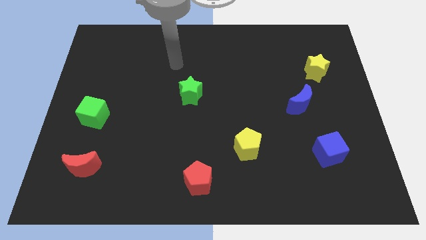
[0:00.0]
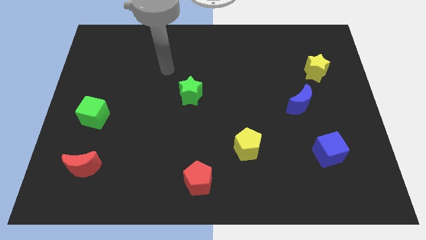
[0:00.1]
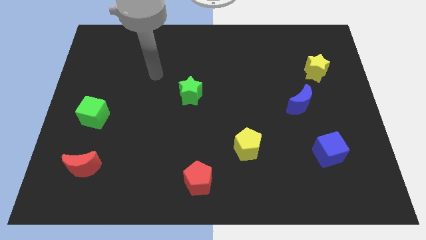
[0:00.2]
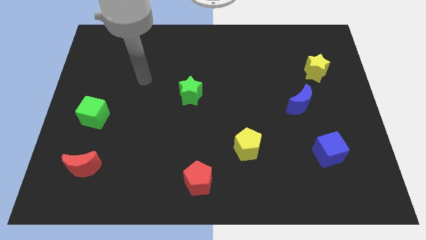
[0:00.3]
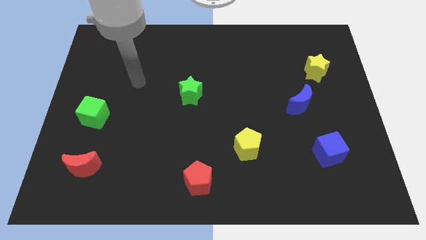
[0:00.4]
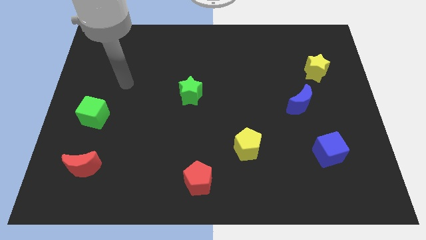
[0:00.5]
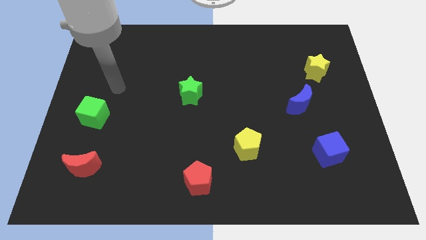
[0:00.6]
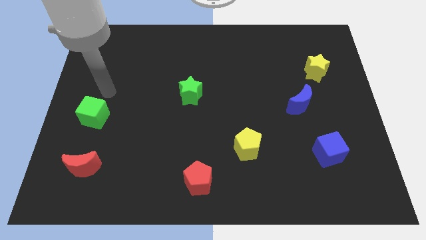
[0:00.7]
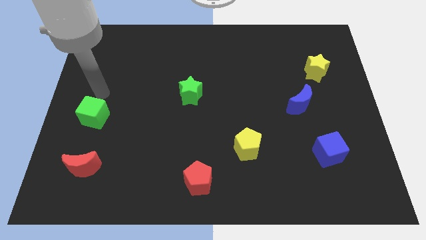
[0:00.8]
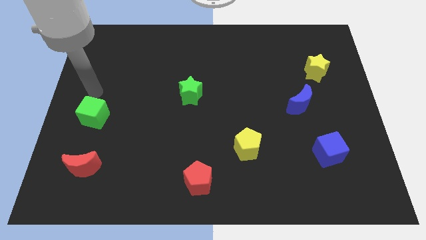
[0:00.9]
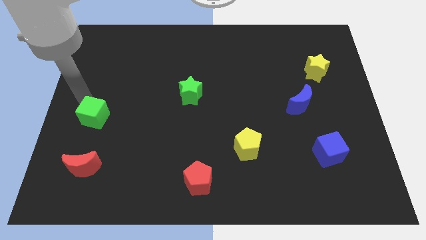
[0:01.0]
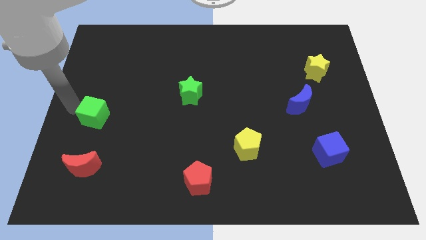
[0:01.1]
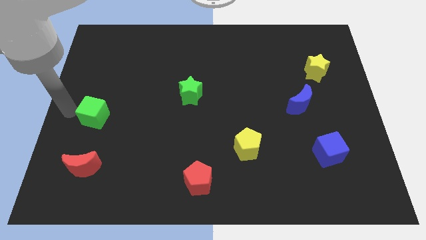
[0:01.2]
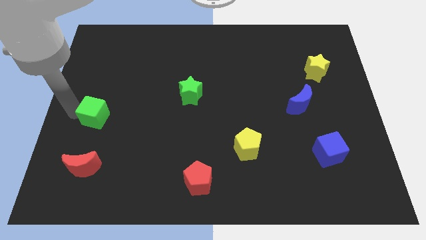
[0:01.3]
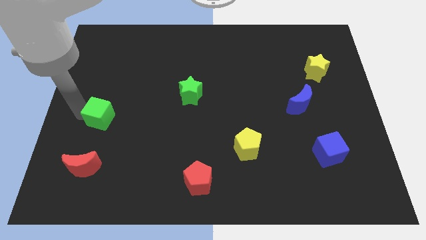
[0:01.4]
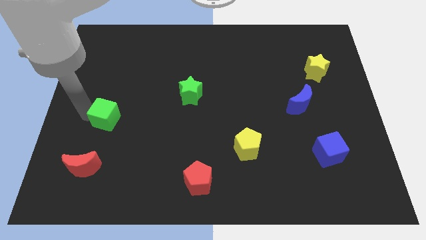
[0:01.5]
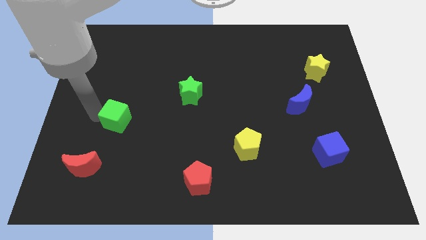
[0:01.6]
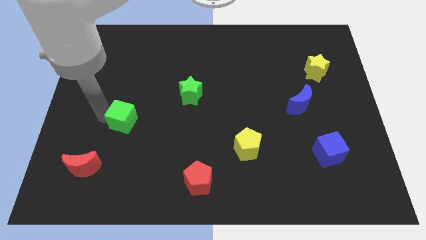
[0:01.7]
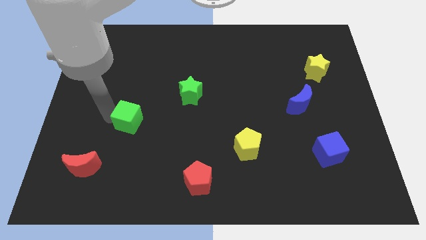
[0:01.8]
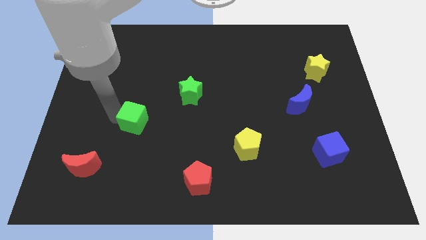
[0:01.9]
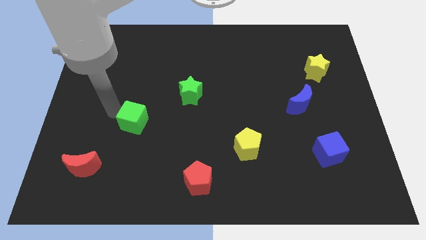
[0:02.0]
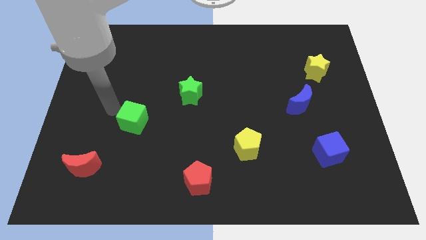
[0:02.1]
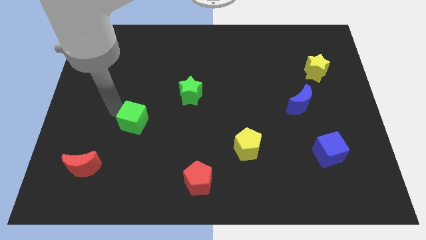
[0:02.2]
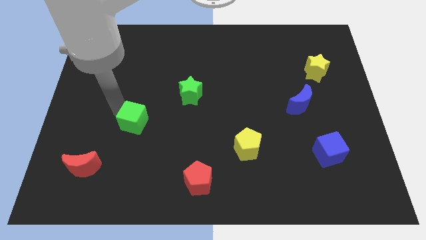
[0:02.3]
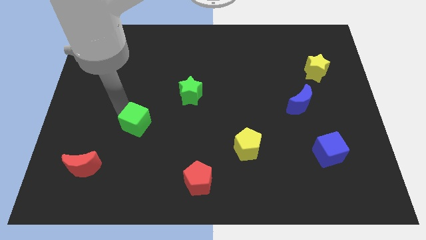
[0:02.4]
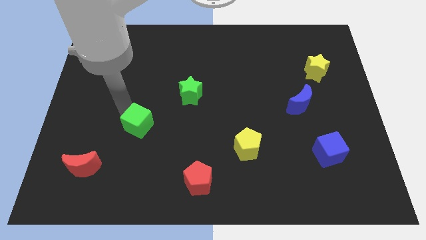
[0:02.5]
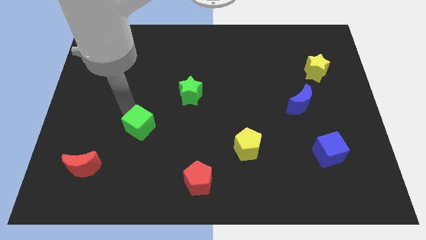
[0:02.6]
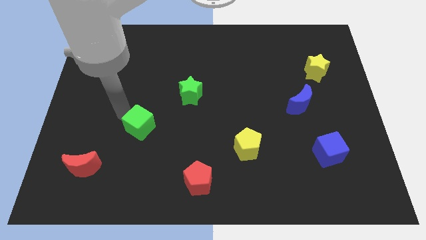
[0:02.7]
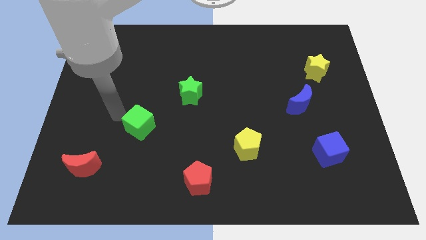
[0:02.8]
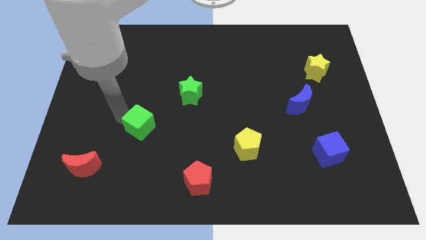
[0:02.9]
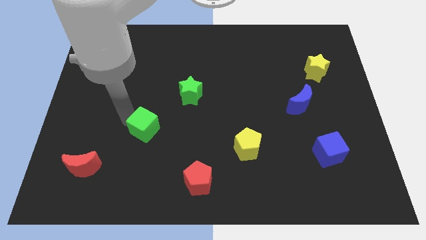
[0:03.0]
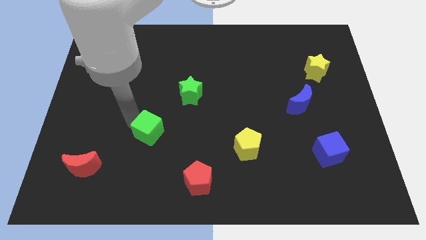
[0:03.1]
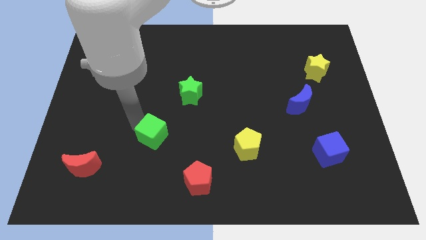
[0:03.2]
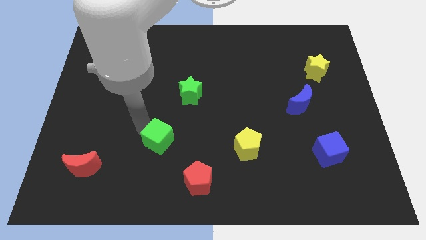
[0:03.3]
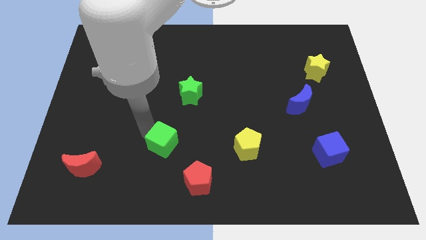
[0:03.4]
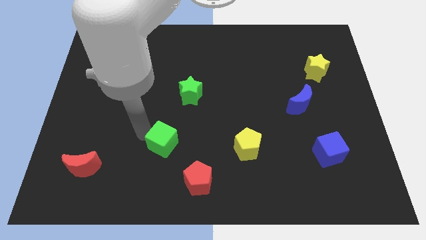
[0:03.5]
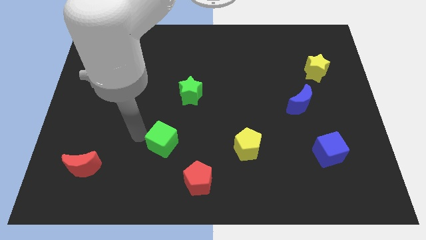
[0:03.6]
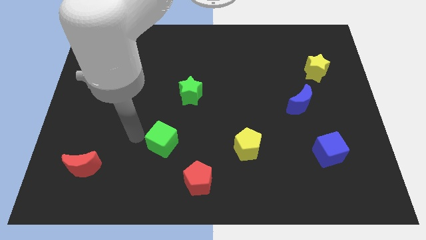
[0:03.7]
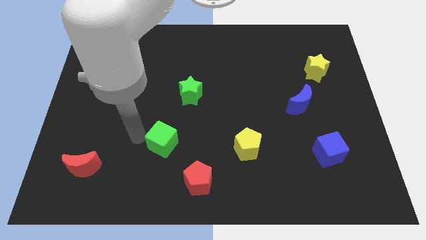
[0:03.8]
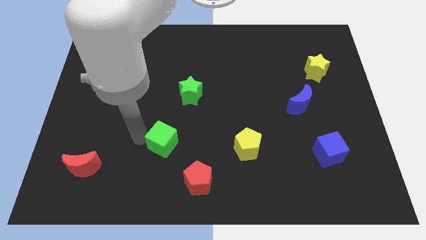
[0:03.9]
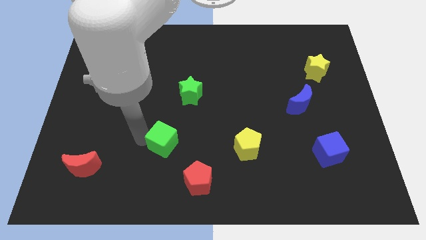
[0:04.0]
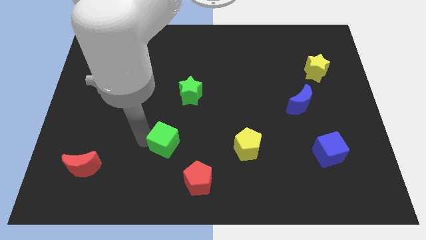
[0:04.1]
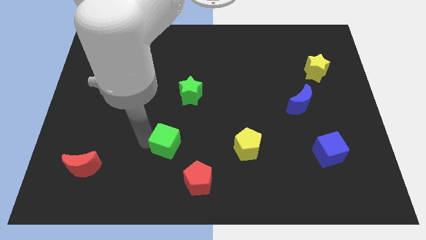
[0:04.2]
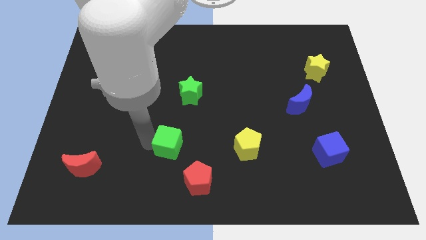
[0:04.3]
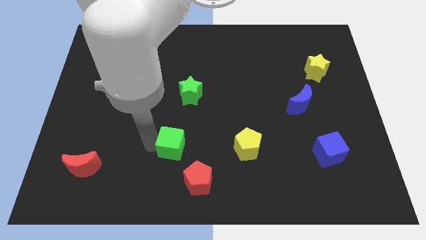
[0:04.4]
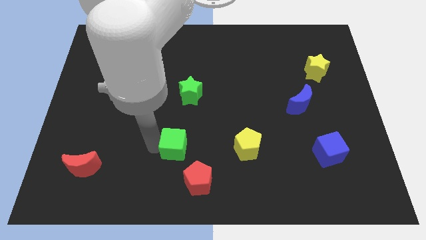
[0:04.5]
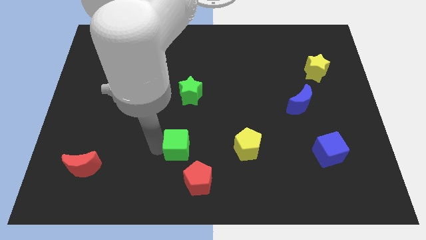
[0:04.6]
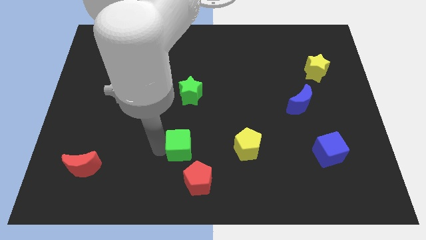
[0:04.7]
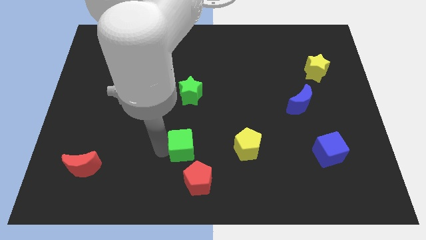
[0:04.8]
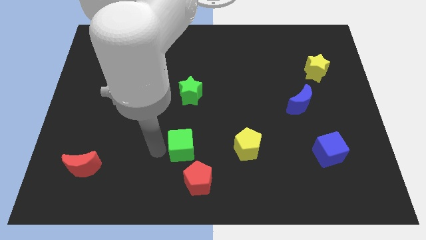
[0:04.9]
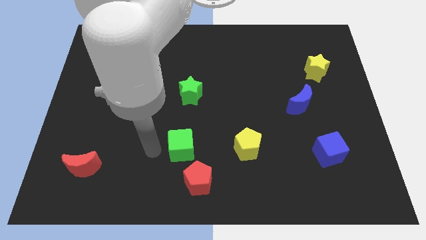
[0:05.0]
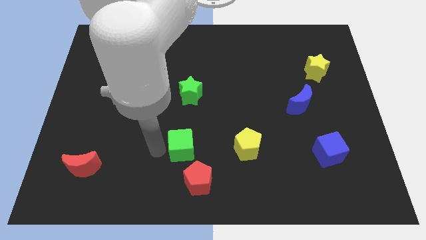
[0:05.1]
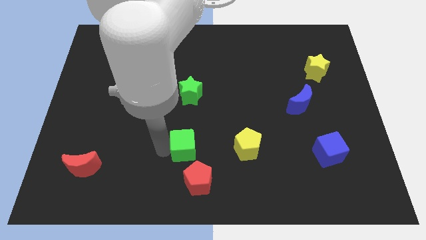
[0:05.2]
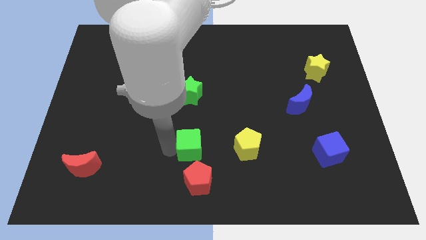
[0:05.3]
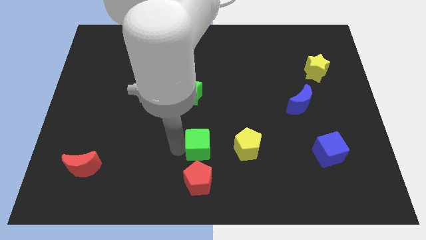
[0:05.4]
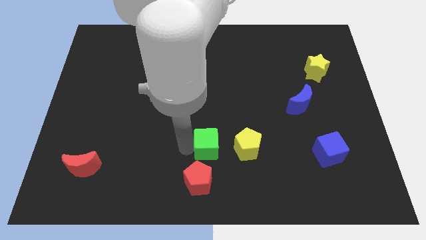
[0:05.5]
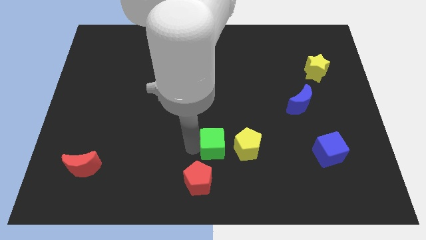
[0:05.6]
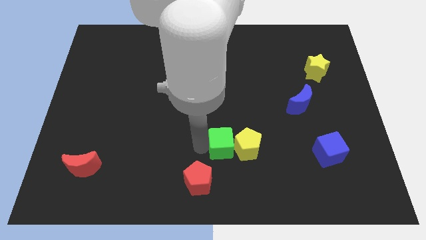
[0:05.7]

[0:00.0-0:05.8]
put the green cube next to the yellow pentagon

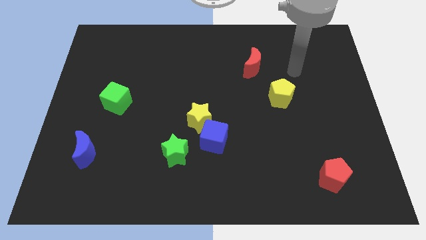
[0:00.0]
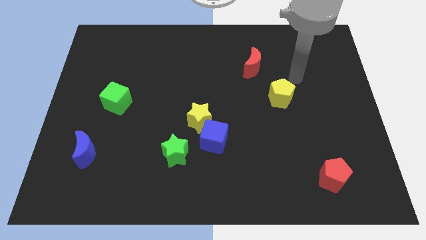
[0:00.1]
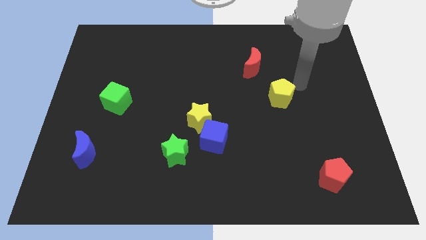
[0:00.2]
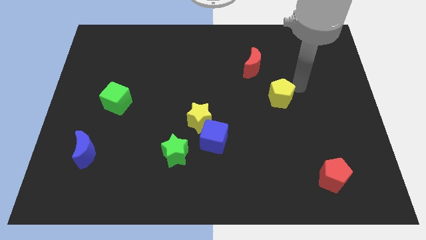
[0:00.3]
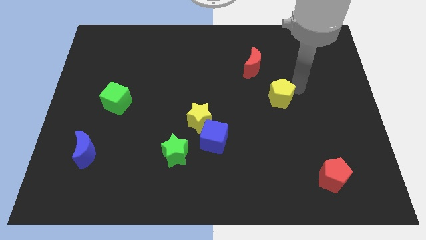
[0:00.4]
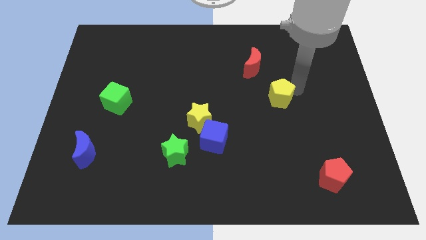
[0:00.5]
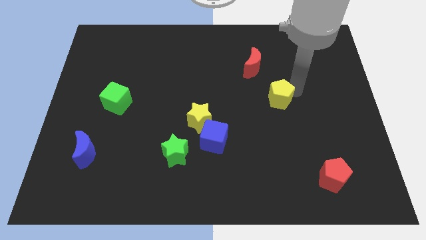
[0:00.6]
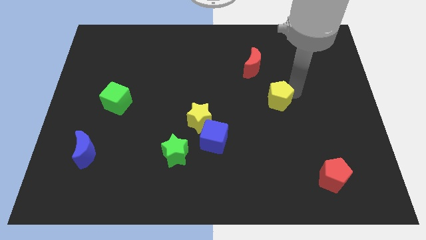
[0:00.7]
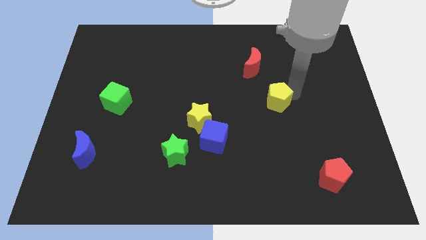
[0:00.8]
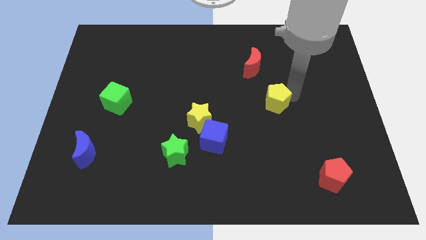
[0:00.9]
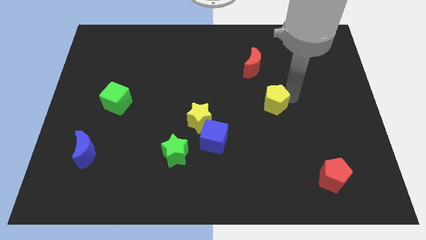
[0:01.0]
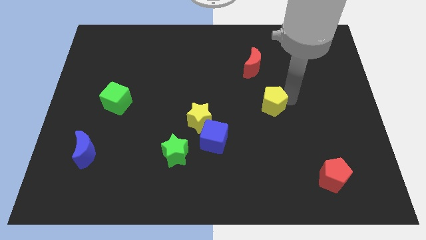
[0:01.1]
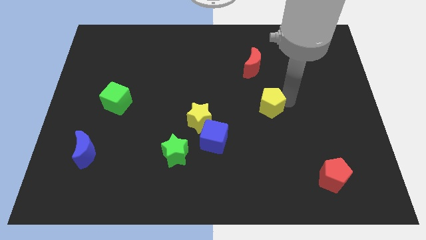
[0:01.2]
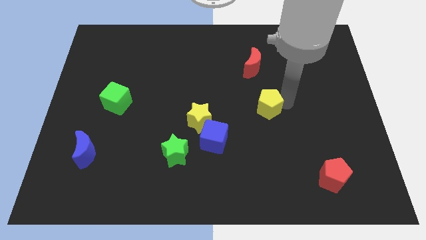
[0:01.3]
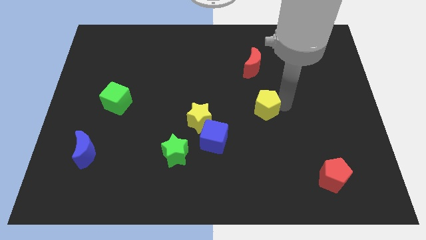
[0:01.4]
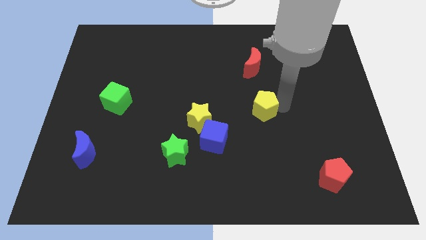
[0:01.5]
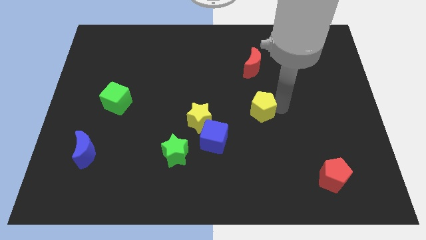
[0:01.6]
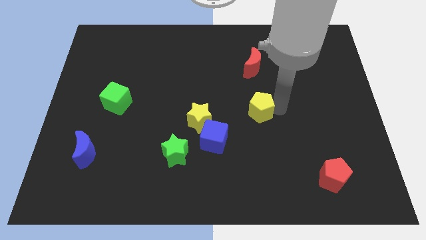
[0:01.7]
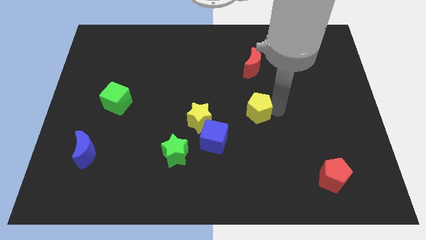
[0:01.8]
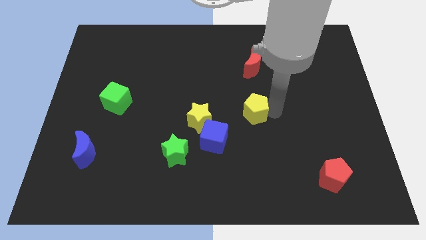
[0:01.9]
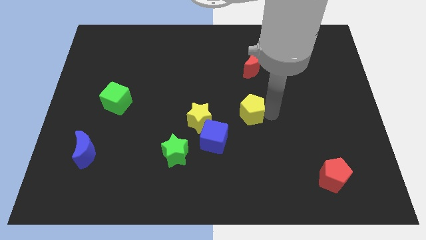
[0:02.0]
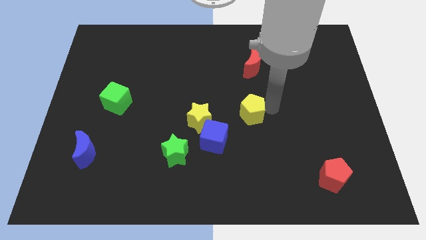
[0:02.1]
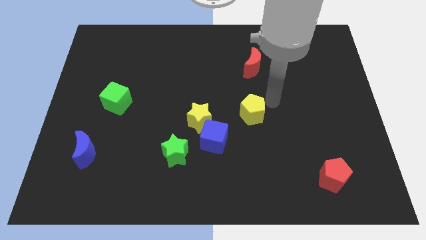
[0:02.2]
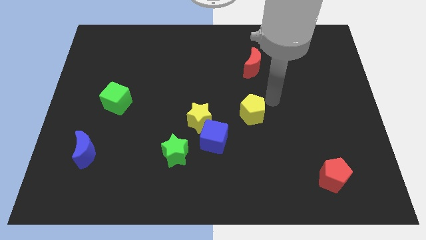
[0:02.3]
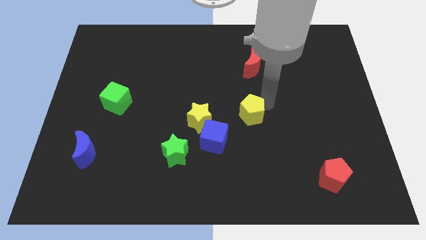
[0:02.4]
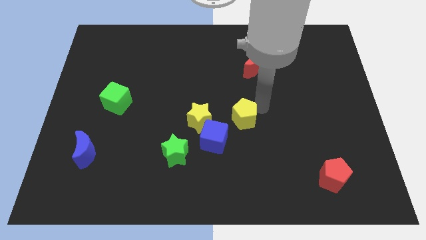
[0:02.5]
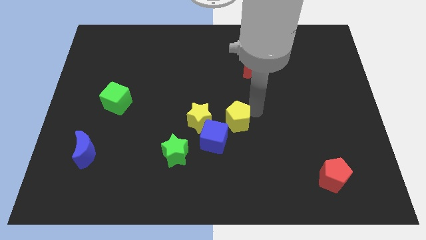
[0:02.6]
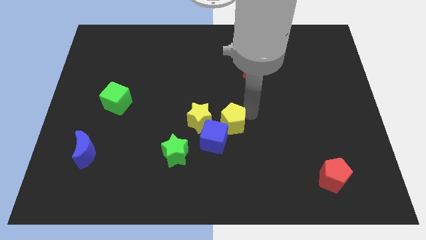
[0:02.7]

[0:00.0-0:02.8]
slide the yellow pentagon next to the blue cube
